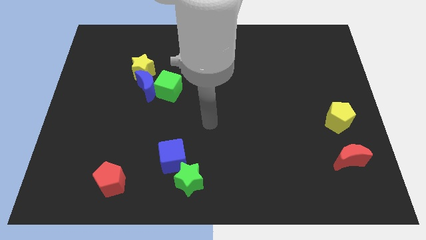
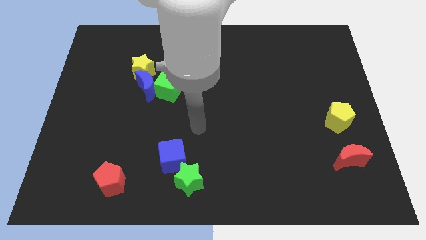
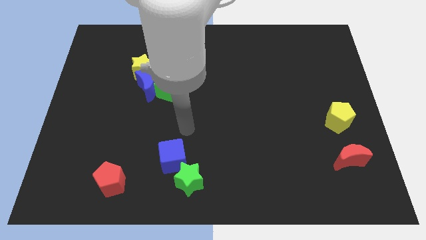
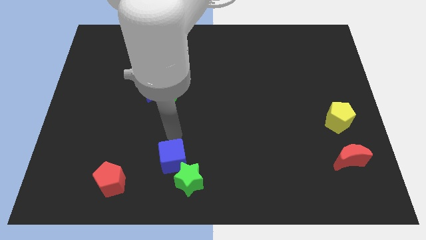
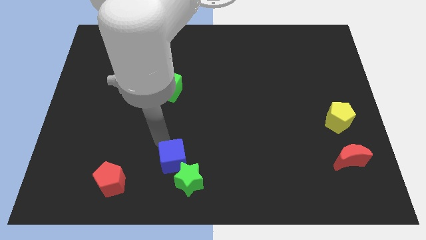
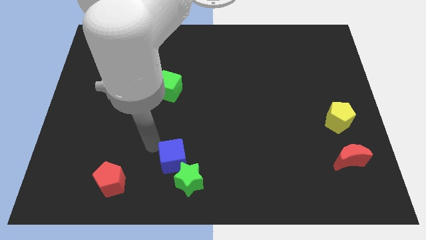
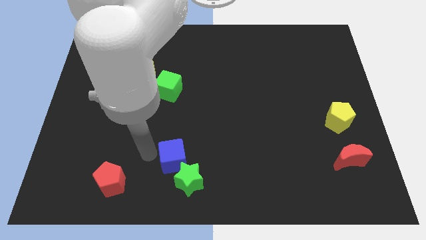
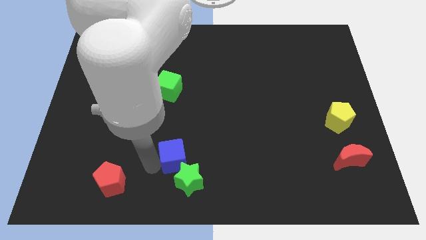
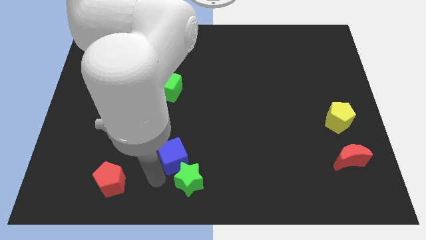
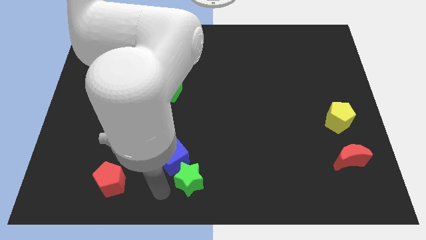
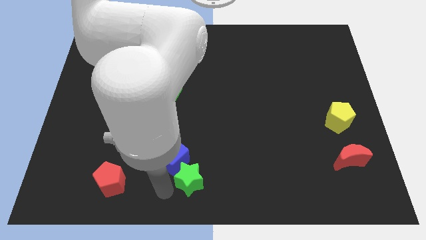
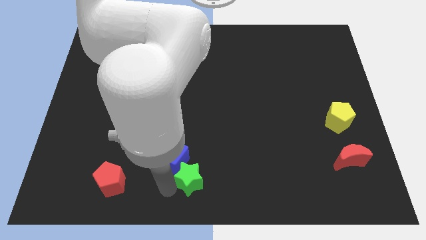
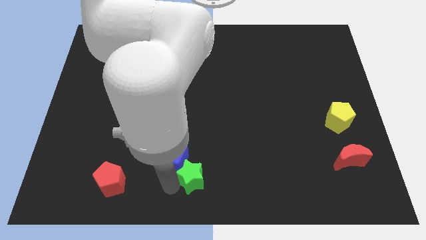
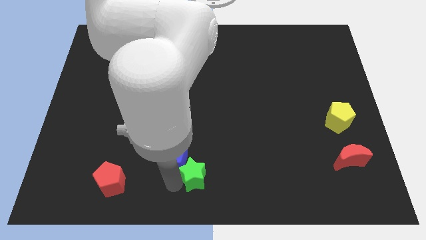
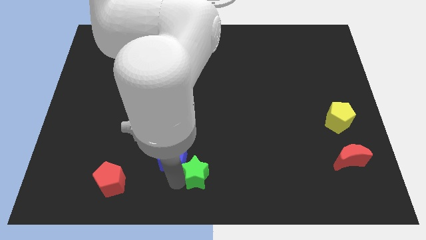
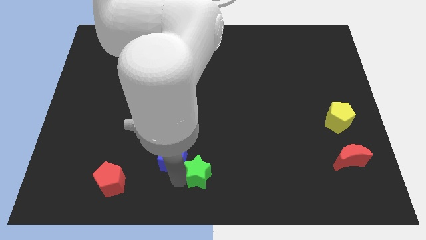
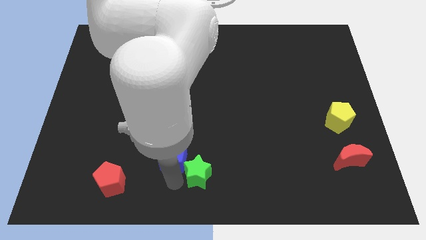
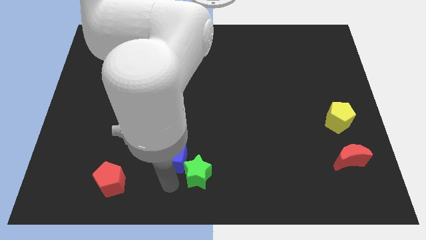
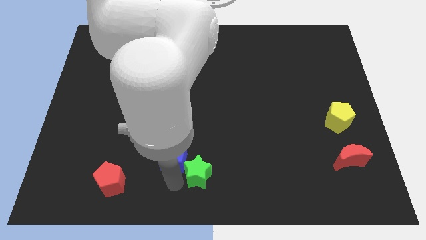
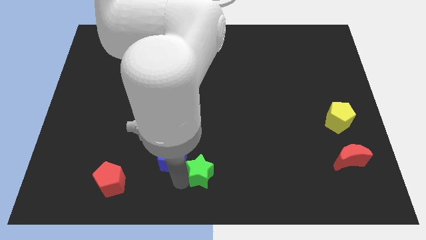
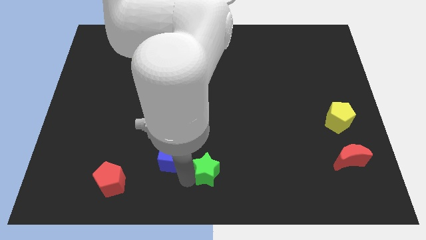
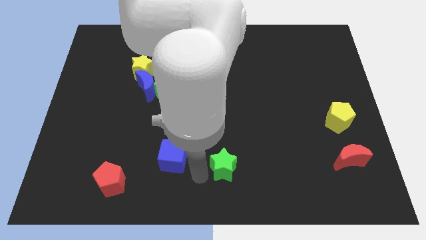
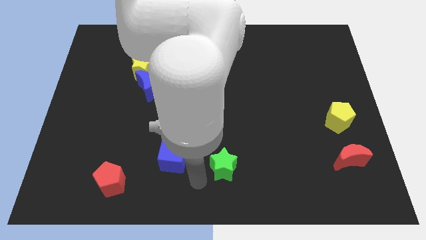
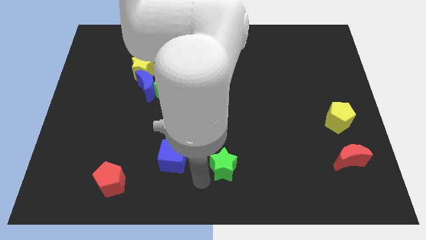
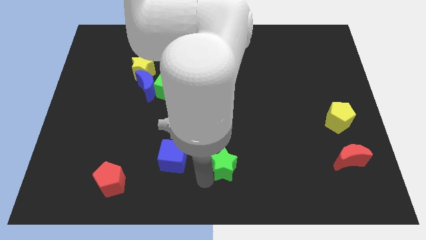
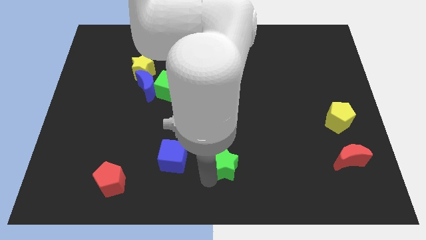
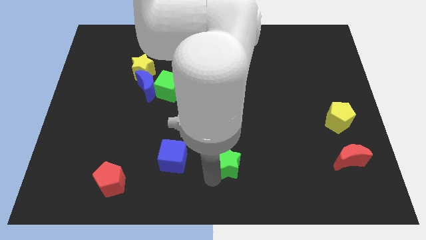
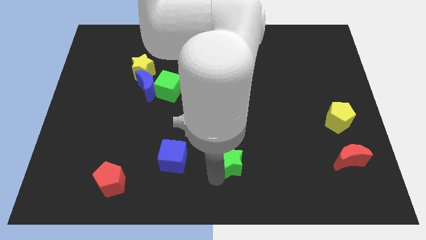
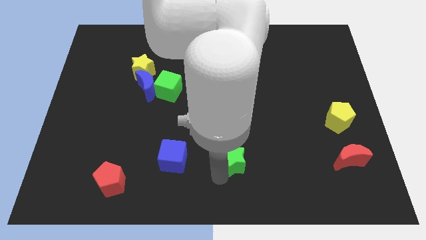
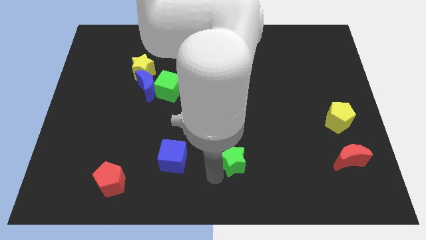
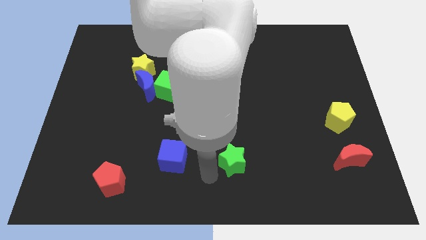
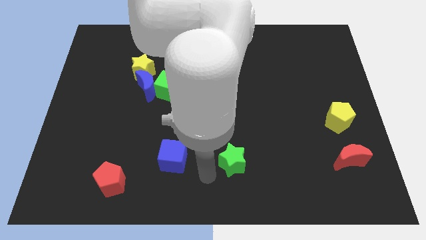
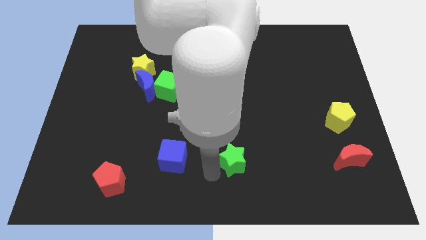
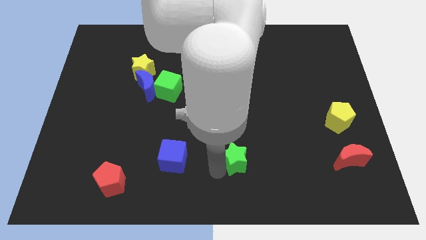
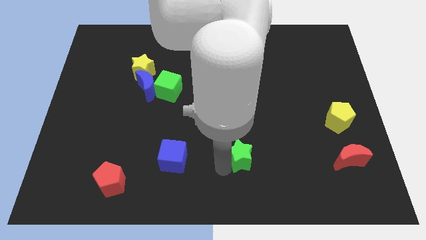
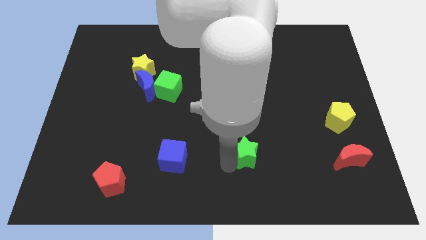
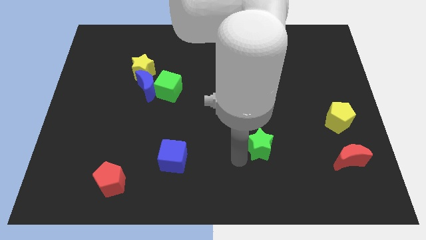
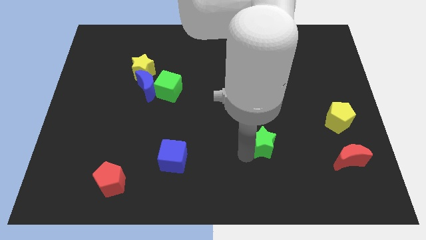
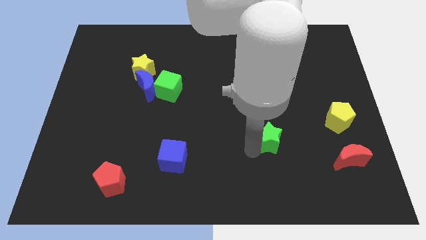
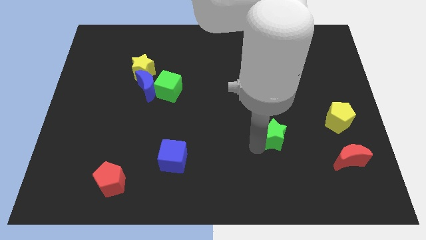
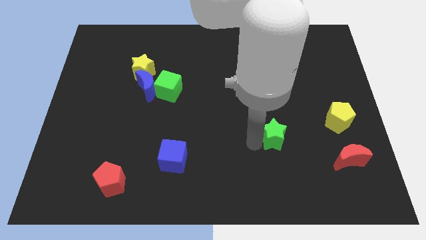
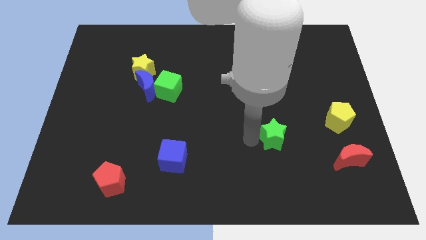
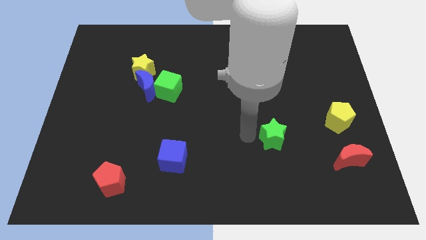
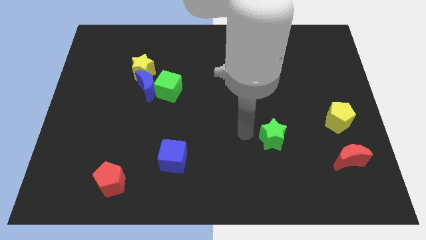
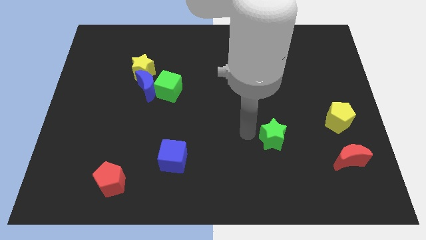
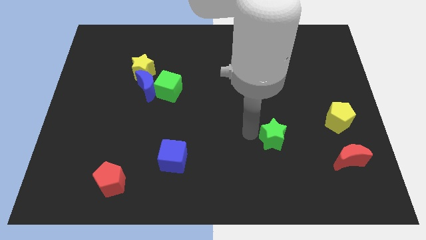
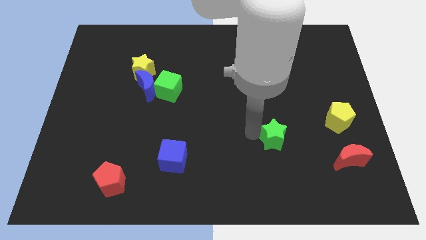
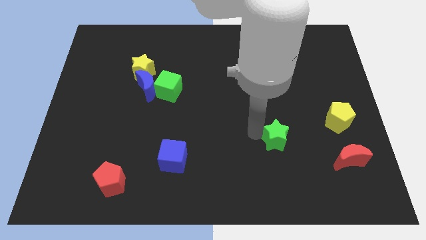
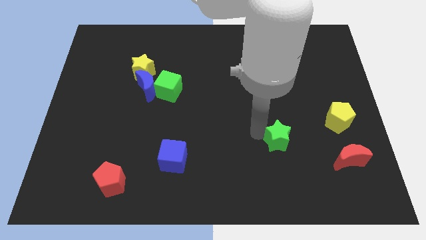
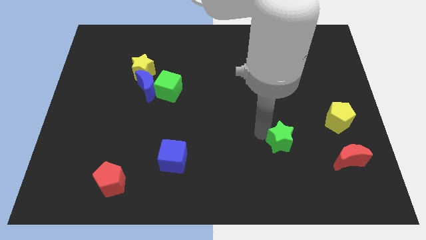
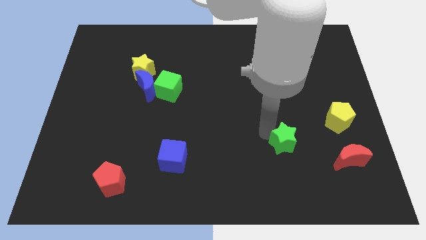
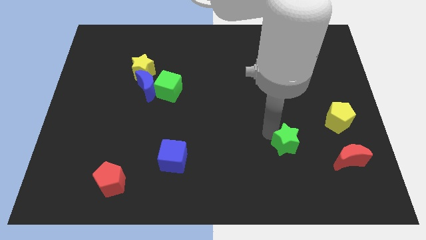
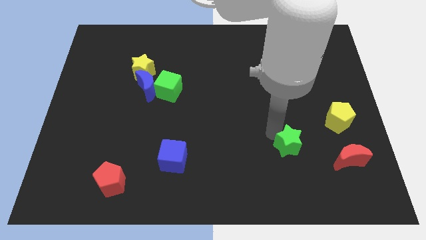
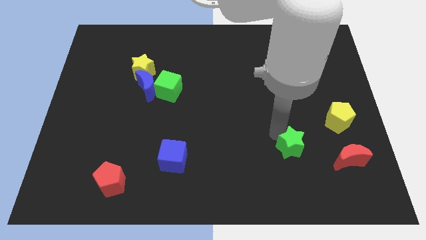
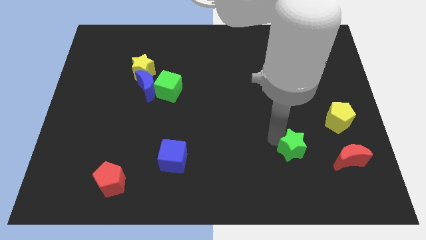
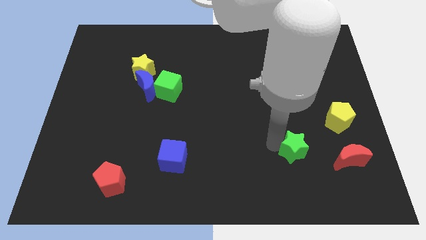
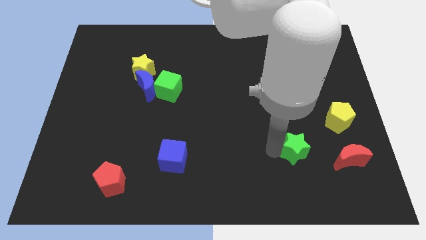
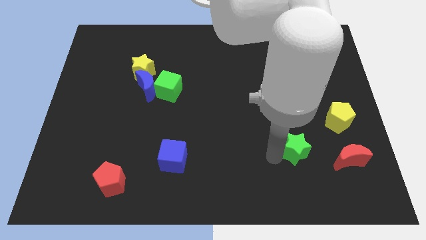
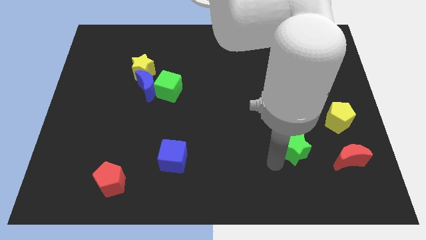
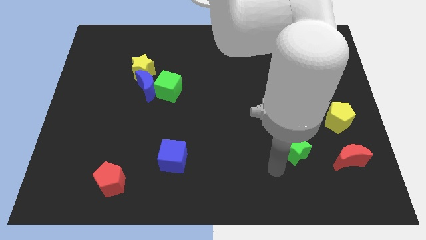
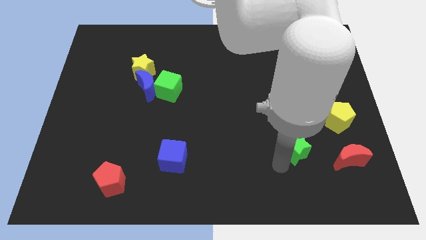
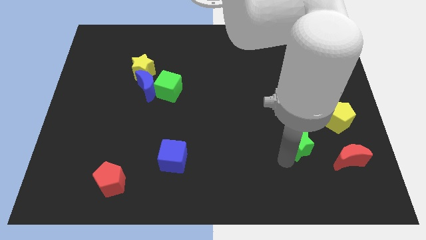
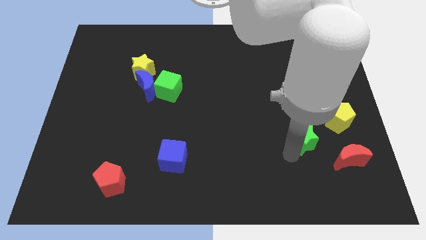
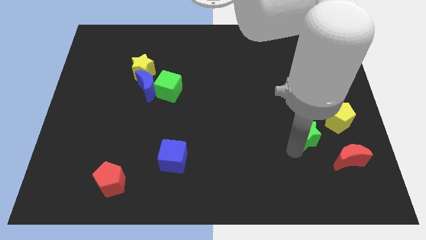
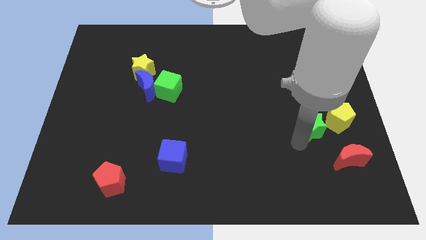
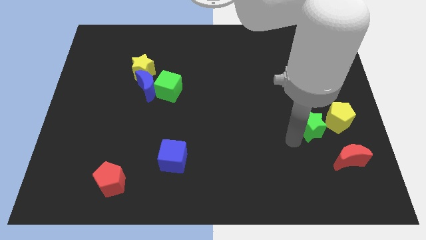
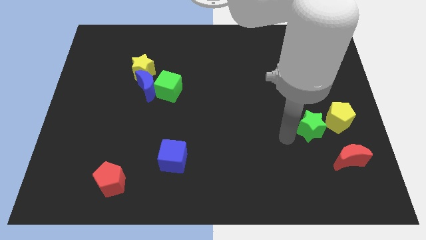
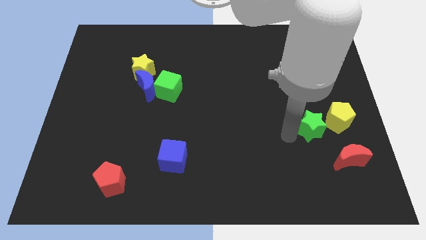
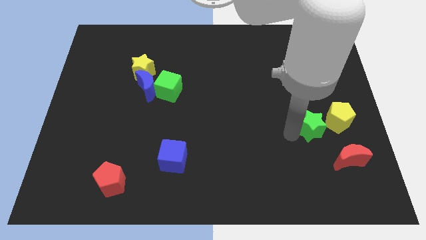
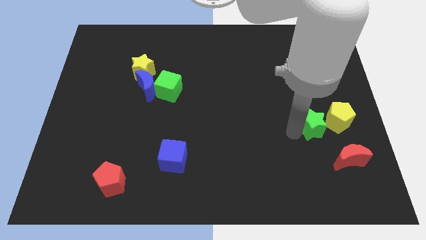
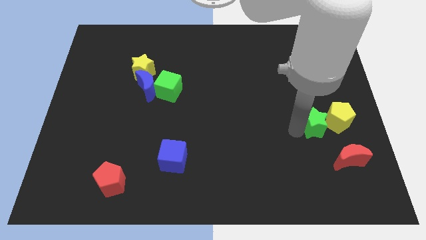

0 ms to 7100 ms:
slide the green star towards the yellow pentagon

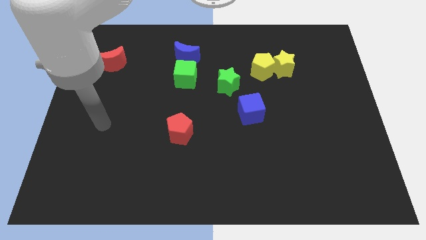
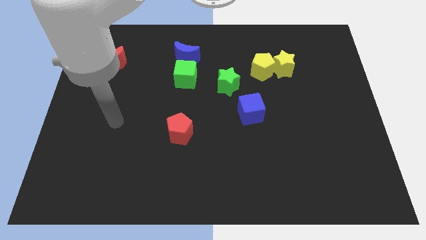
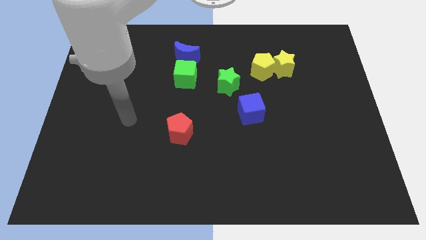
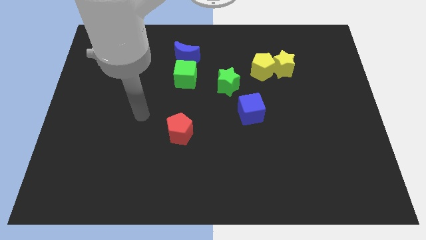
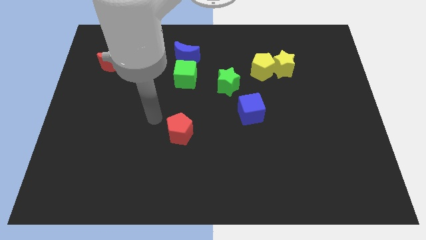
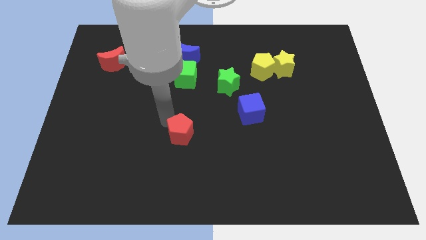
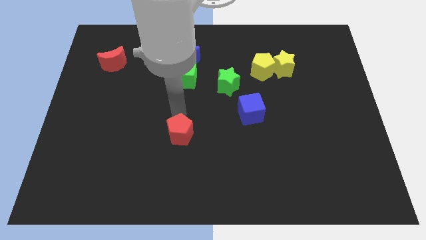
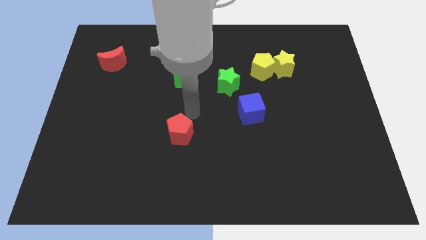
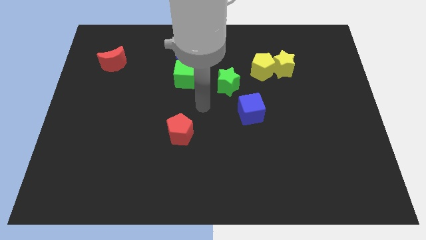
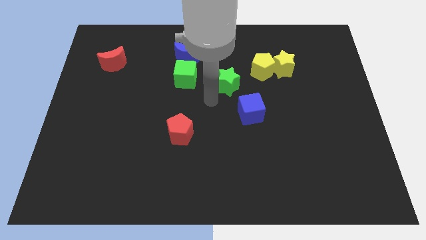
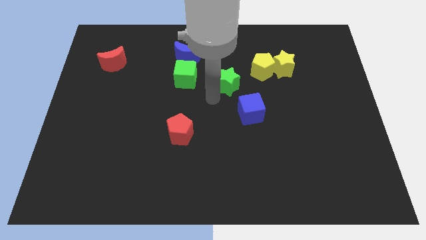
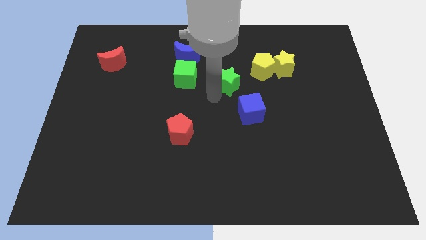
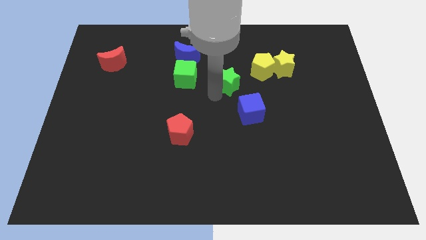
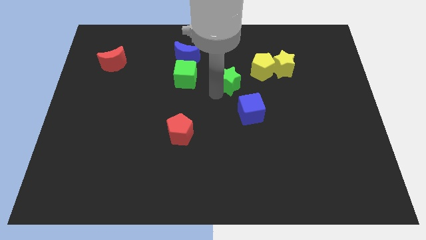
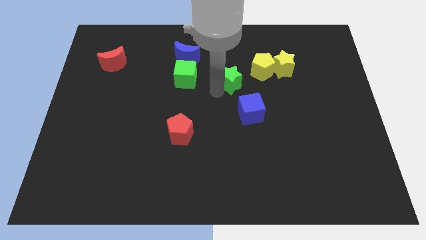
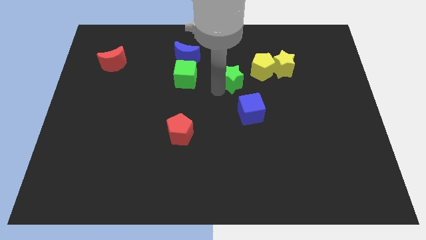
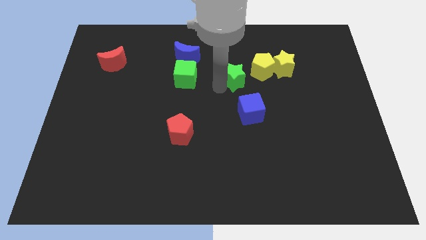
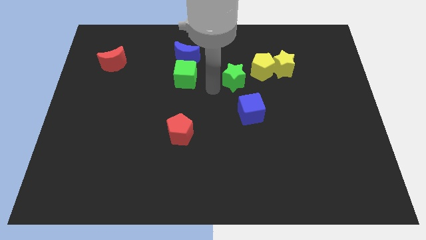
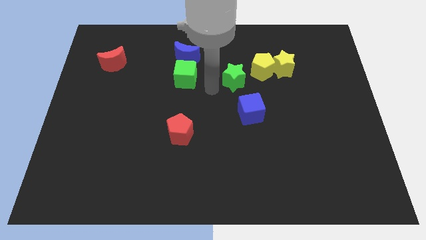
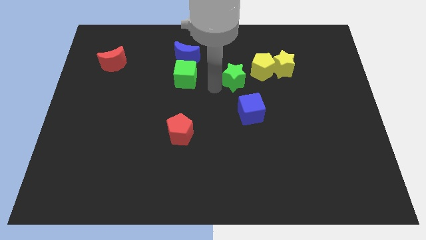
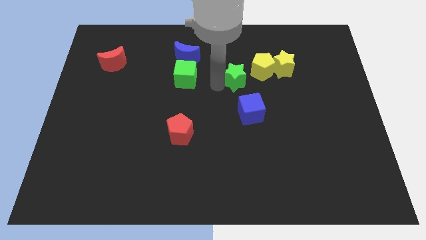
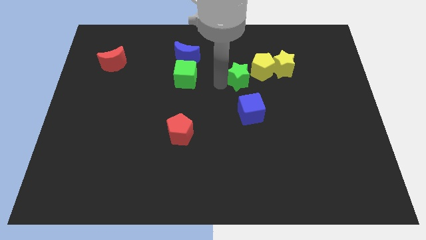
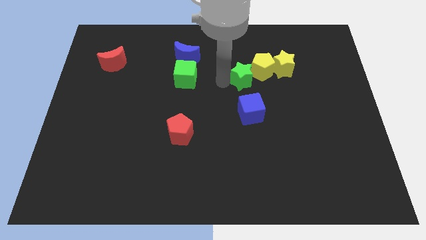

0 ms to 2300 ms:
push the green star towards the yellow pentagon
